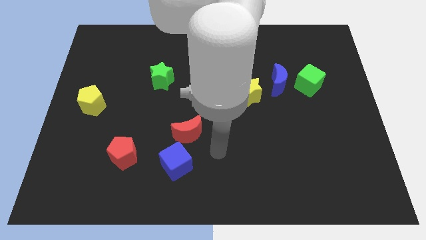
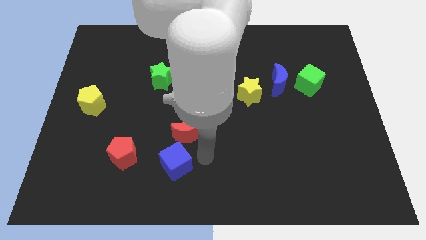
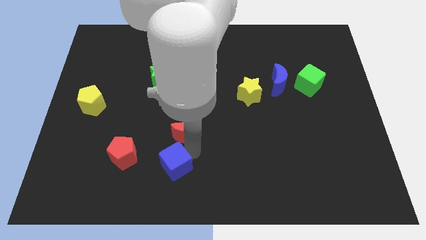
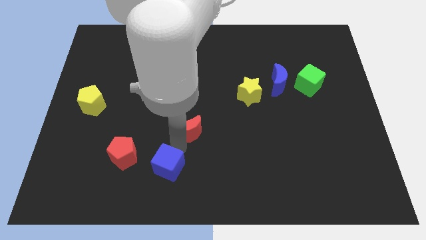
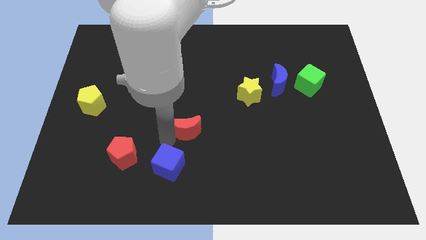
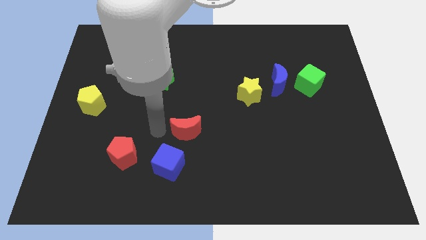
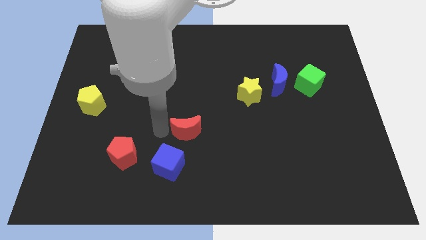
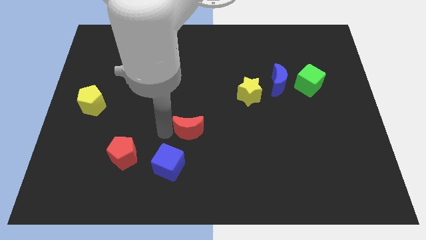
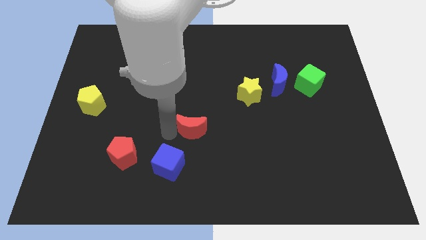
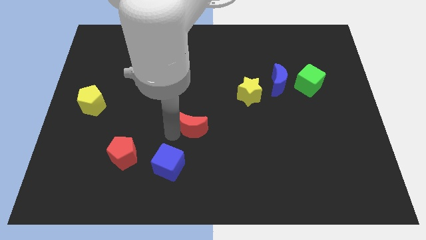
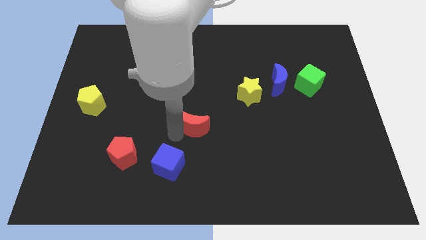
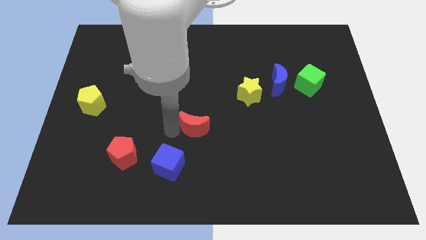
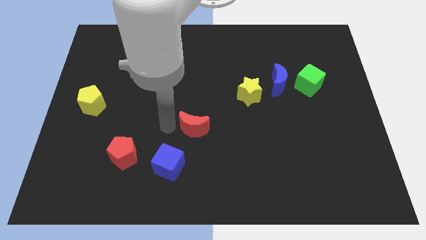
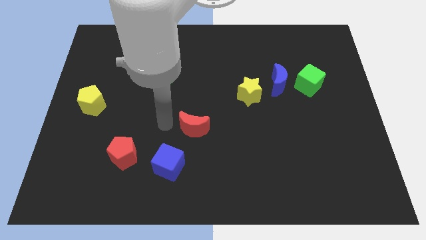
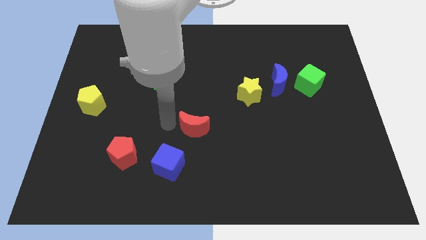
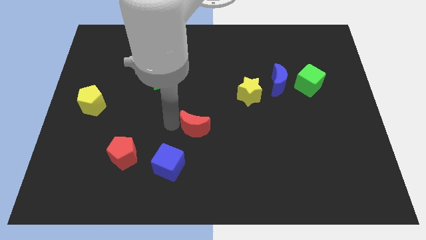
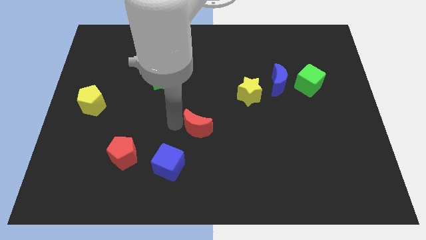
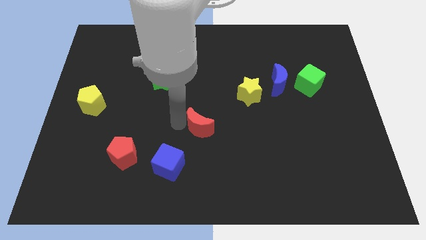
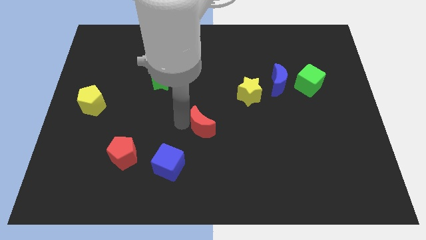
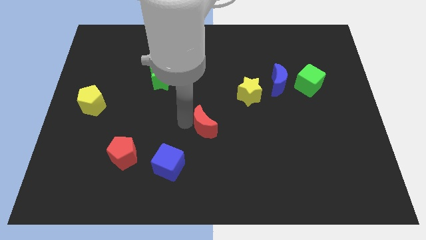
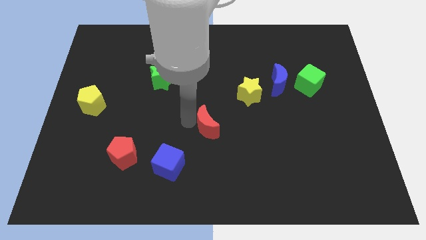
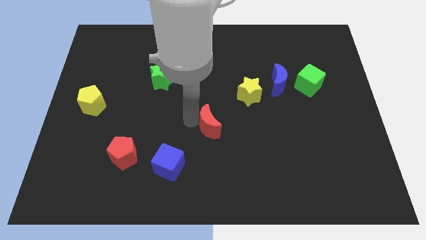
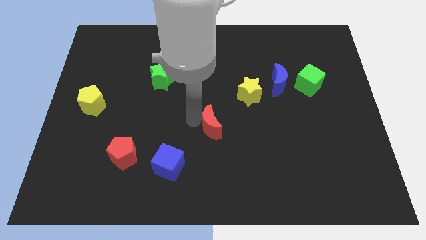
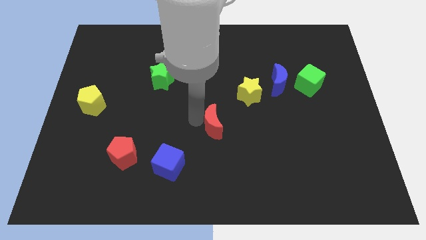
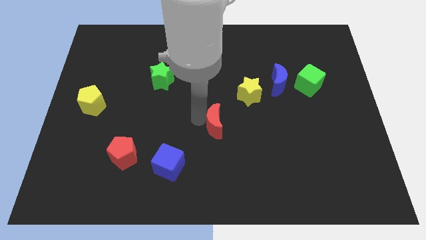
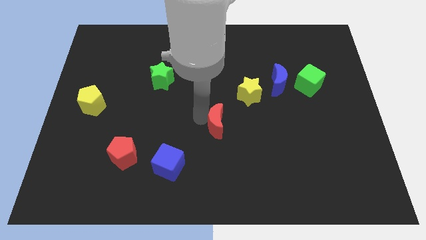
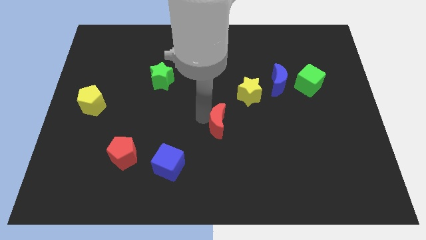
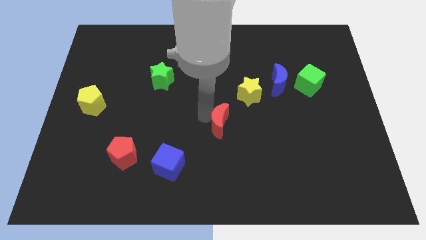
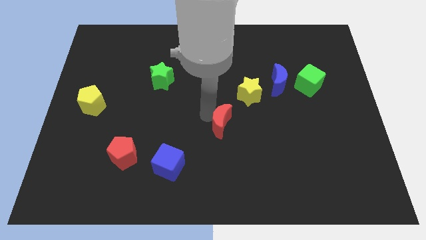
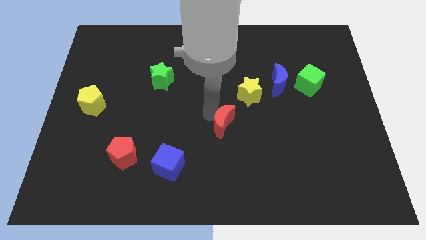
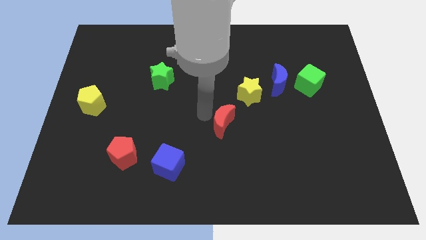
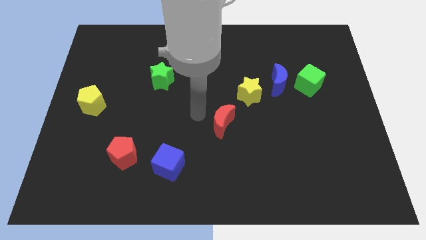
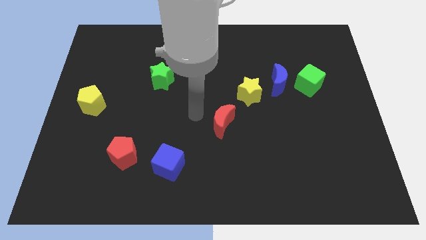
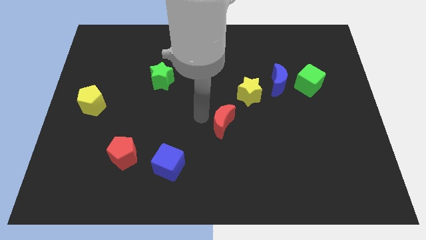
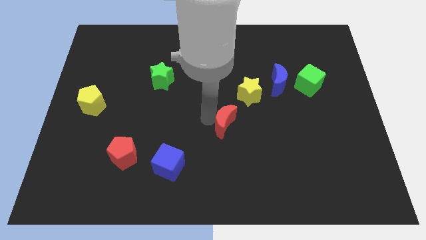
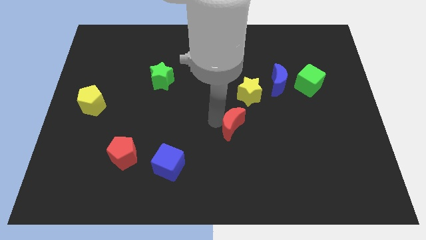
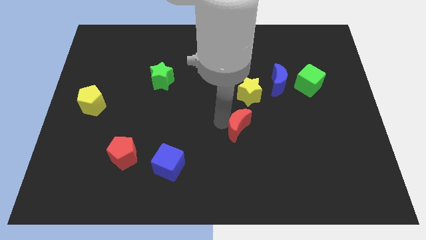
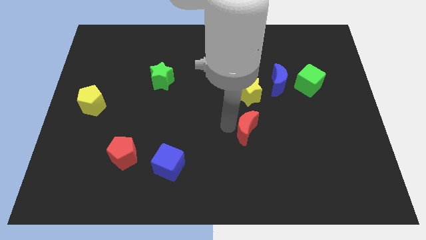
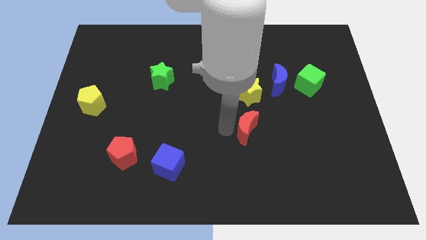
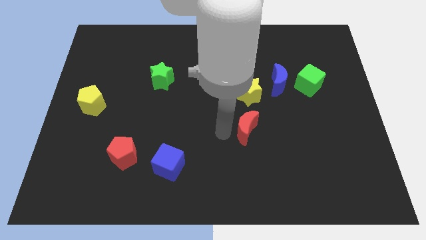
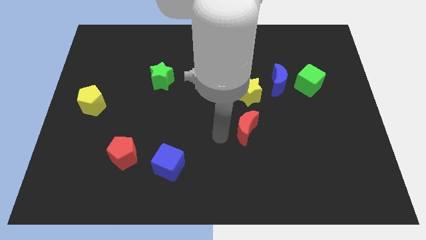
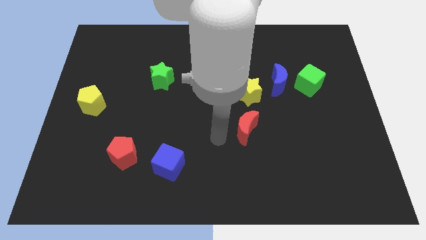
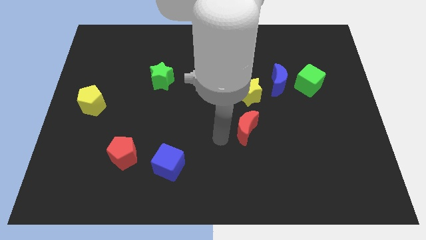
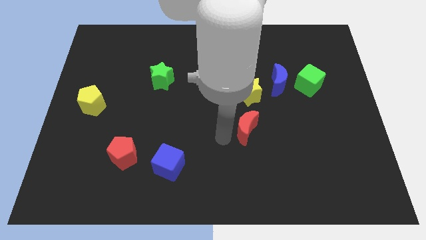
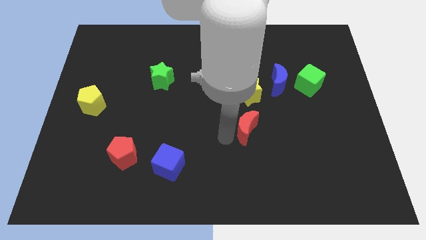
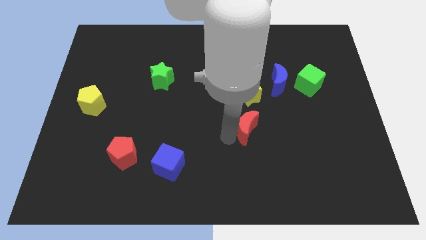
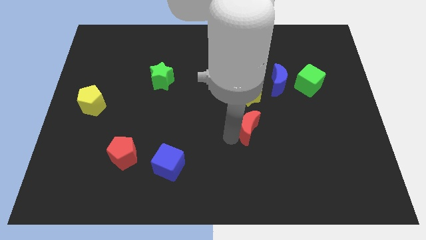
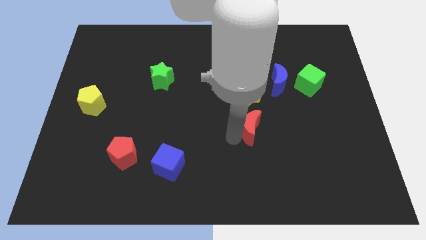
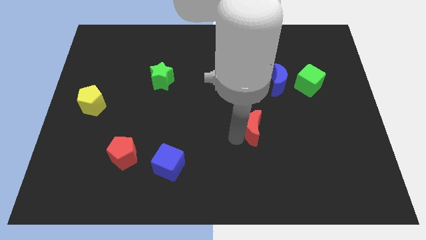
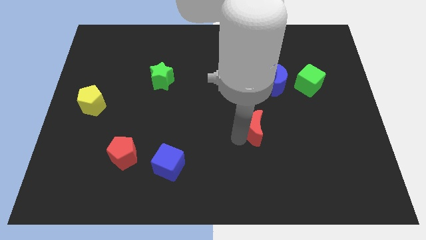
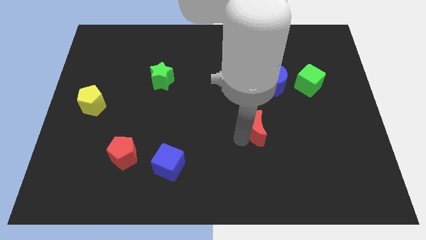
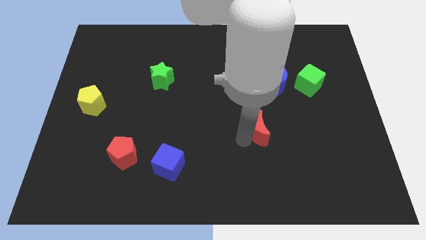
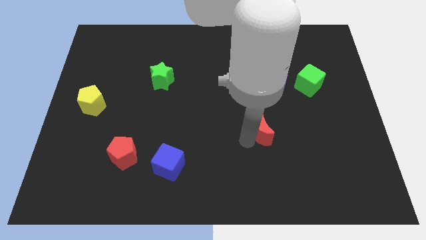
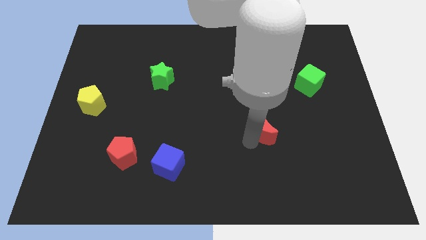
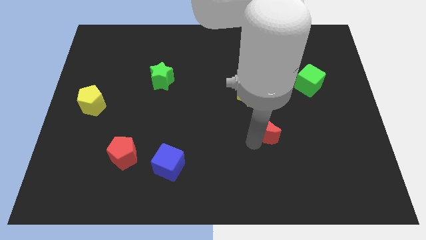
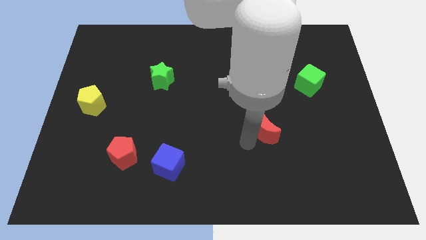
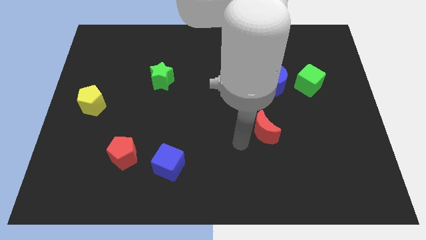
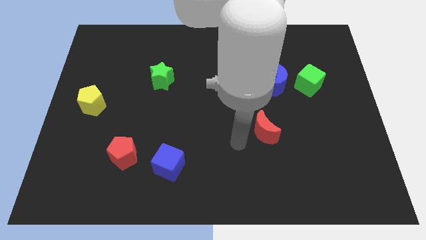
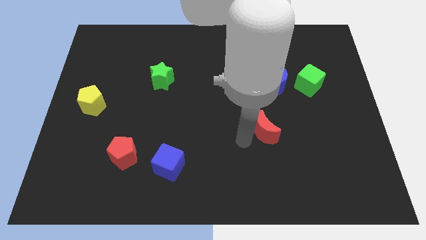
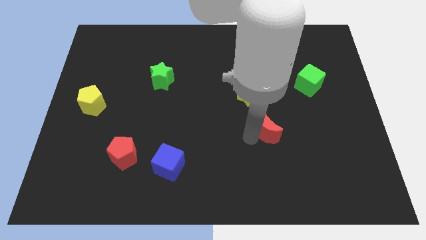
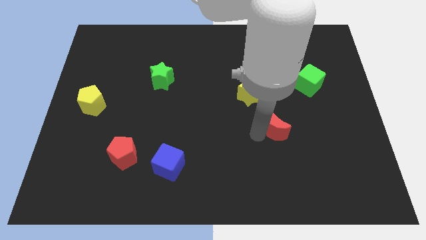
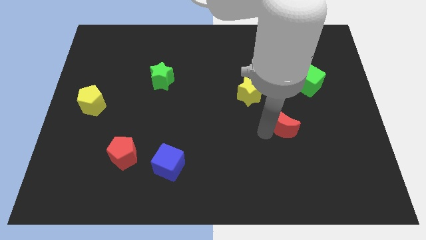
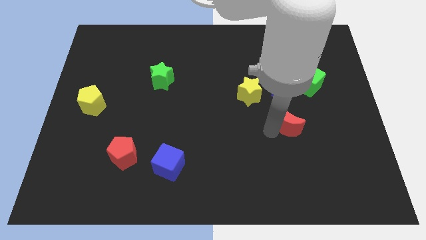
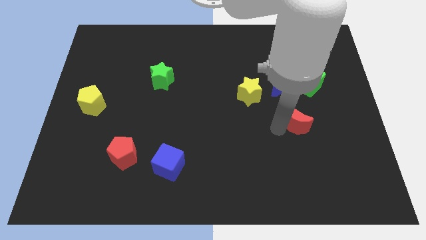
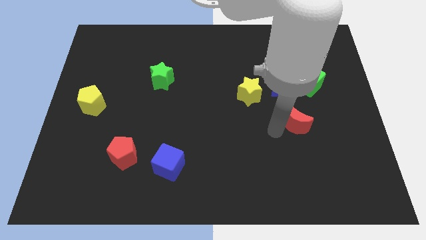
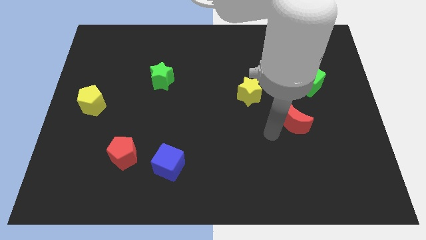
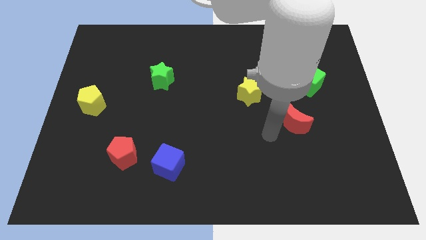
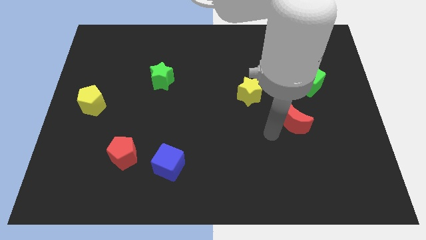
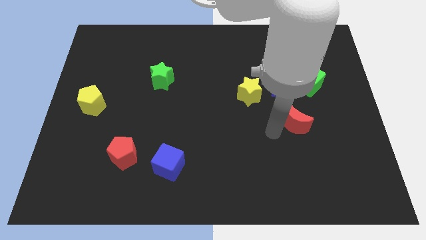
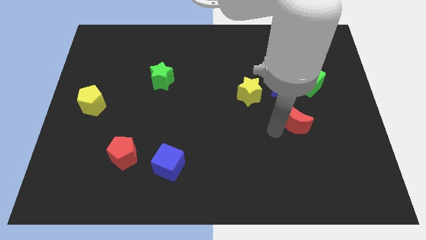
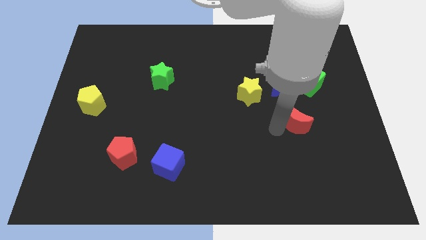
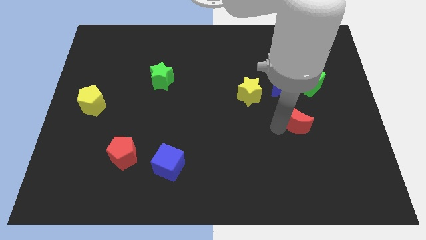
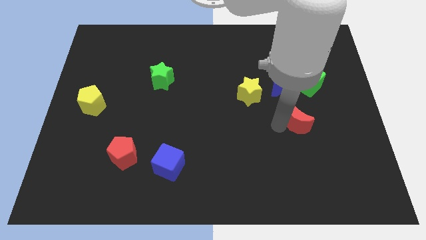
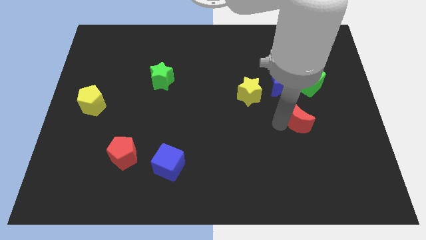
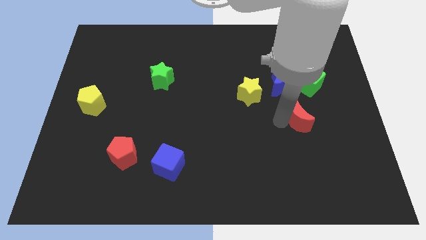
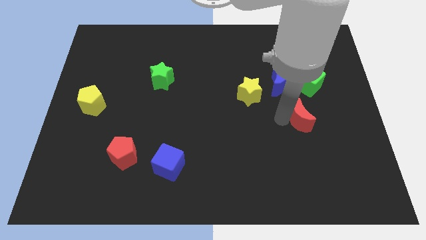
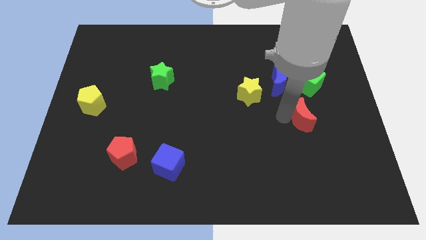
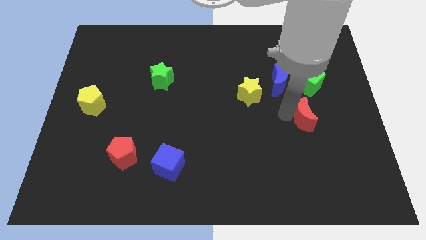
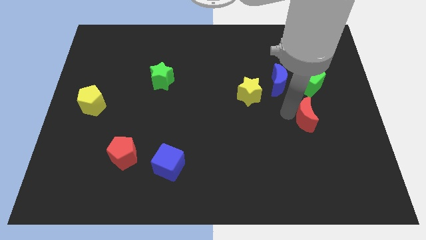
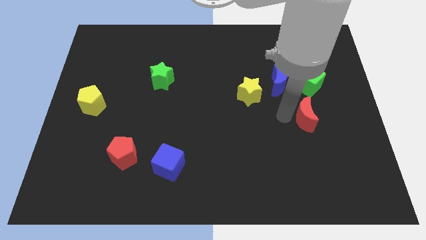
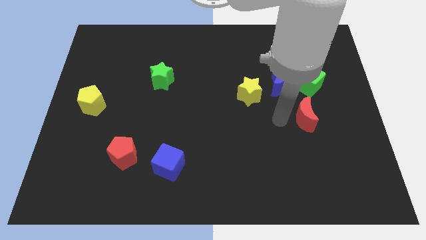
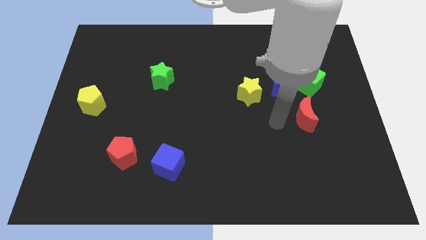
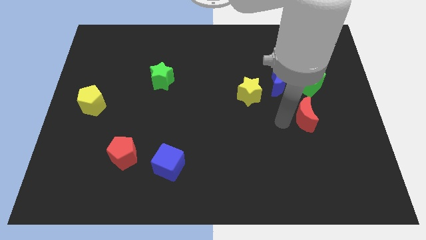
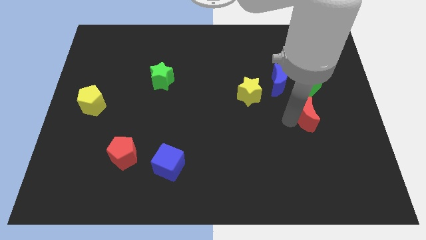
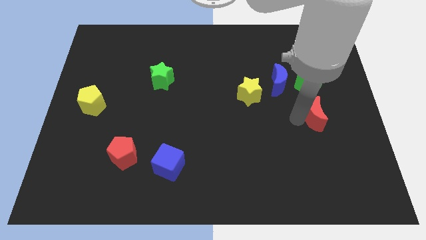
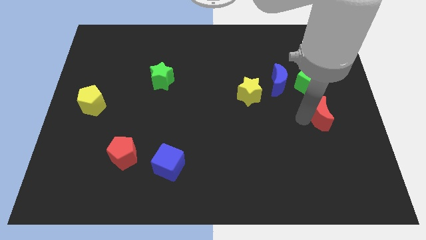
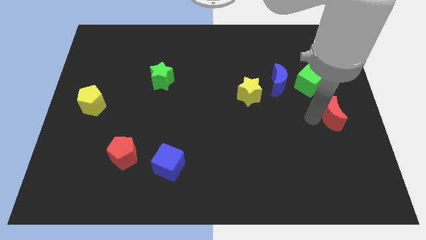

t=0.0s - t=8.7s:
push the red moon to the right side
